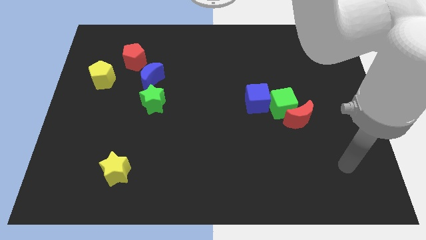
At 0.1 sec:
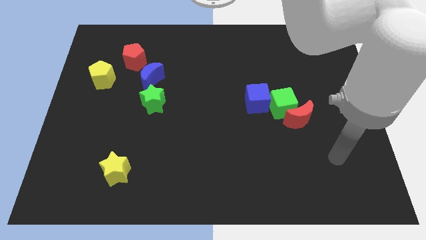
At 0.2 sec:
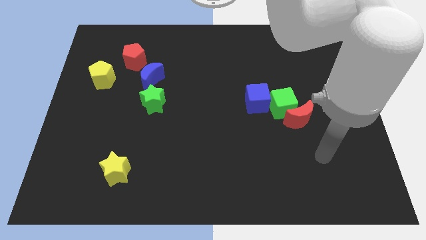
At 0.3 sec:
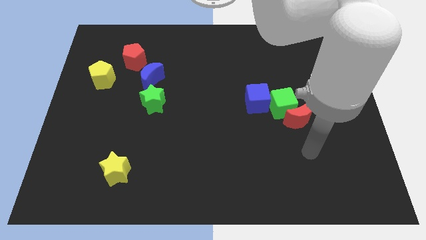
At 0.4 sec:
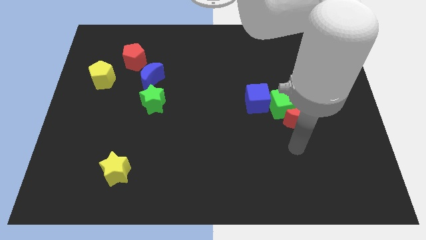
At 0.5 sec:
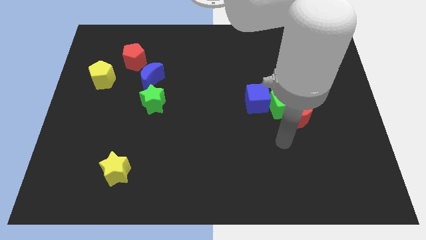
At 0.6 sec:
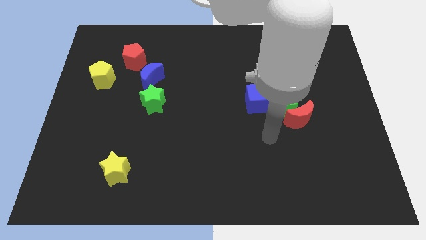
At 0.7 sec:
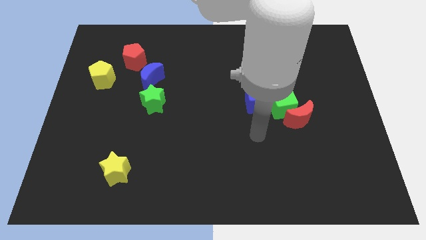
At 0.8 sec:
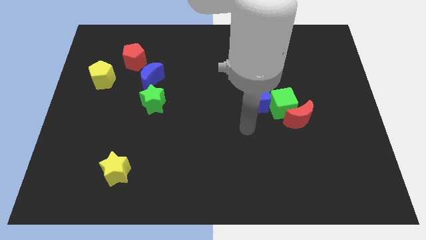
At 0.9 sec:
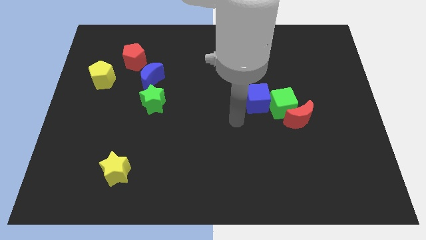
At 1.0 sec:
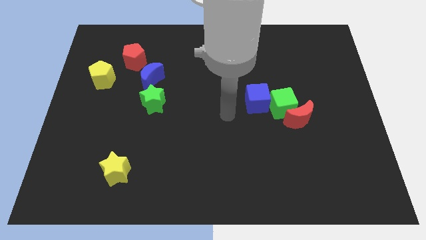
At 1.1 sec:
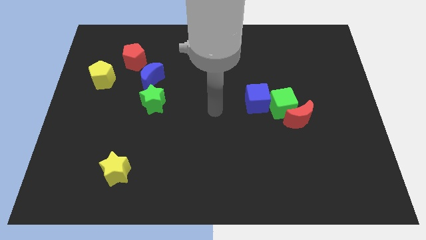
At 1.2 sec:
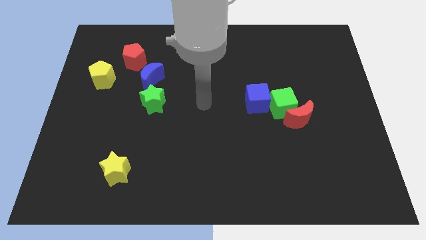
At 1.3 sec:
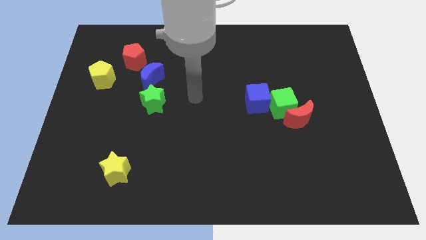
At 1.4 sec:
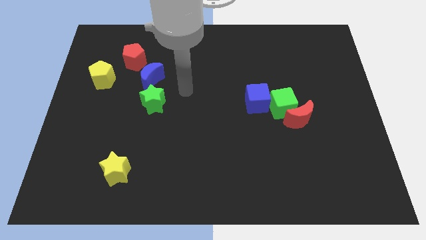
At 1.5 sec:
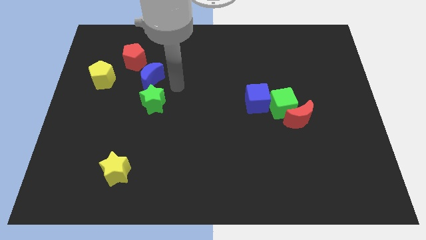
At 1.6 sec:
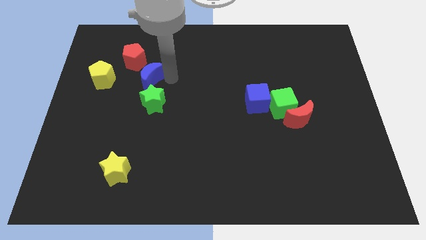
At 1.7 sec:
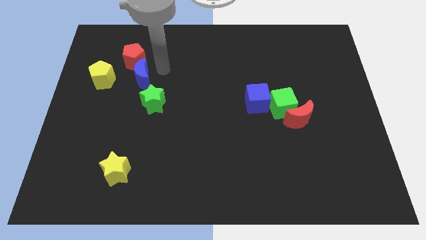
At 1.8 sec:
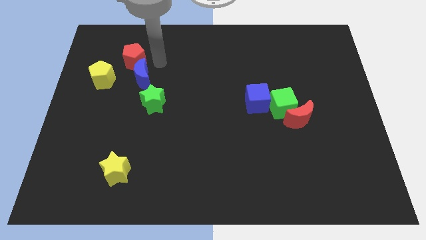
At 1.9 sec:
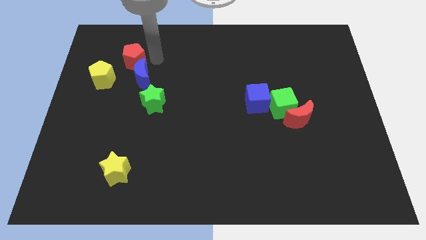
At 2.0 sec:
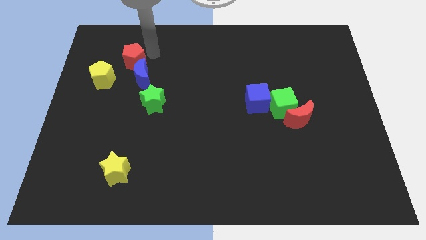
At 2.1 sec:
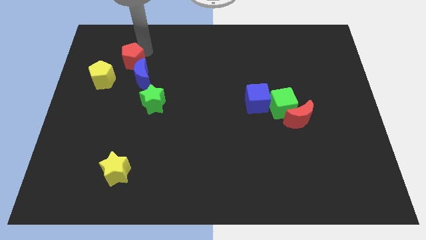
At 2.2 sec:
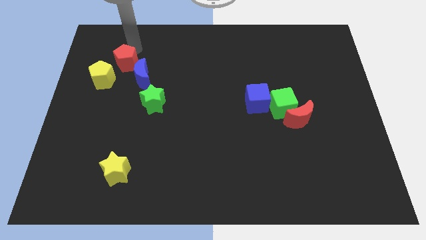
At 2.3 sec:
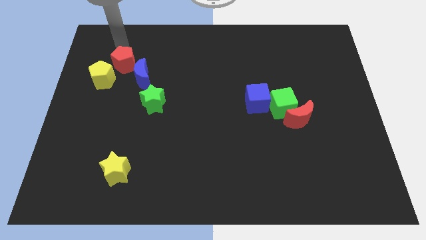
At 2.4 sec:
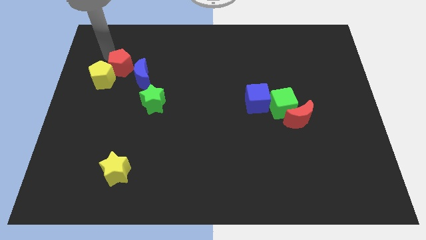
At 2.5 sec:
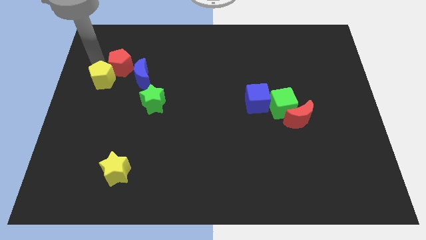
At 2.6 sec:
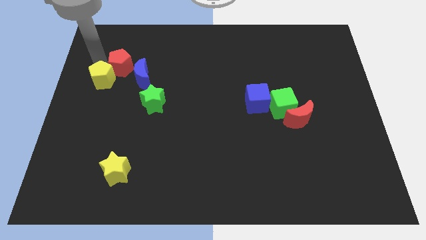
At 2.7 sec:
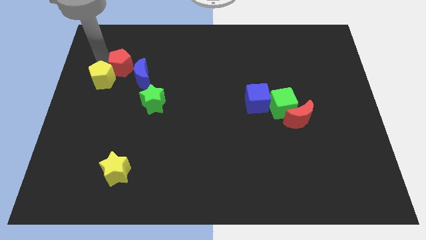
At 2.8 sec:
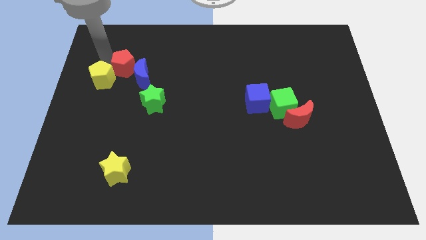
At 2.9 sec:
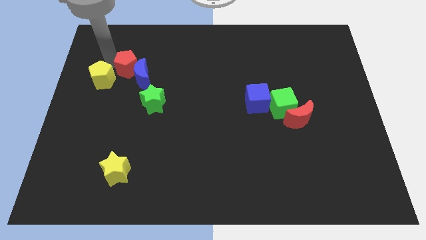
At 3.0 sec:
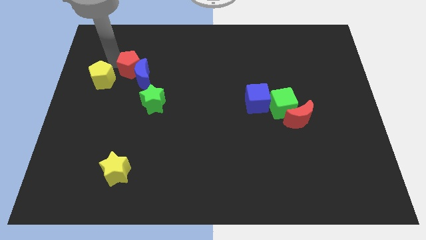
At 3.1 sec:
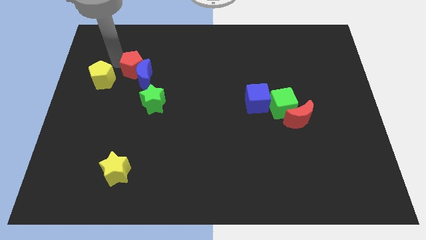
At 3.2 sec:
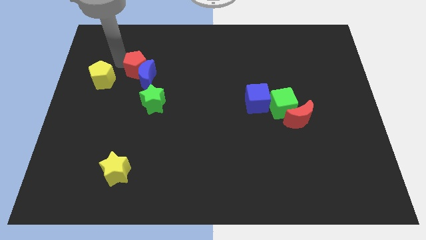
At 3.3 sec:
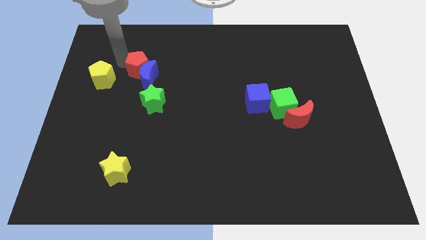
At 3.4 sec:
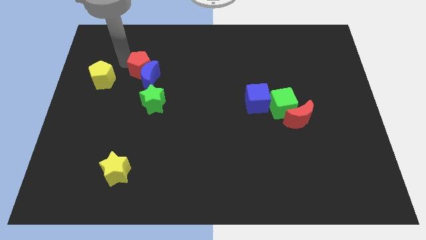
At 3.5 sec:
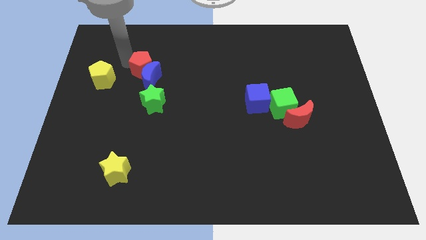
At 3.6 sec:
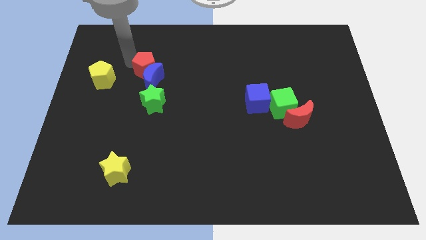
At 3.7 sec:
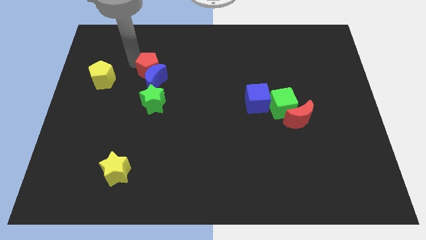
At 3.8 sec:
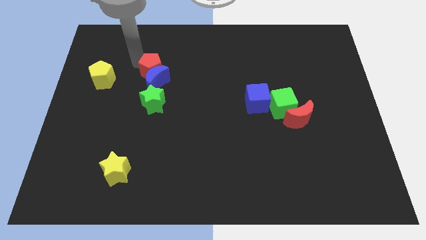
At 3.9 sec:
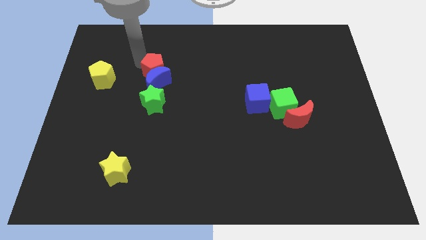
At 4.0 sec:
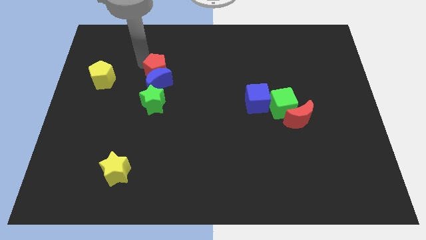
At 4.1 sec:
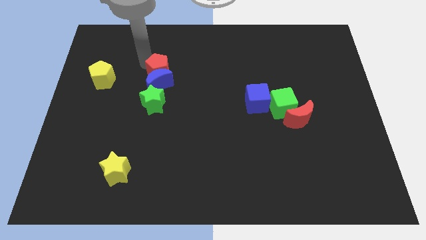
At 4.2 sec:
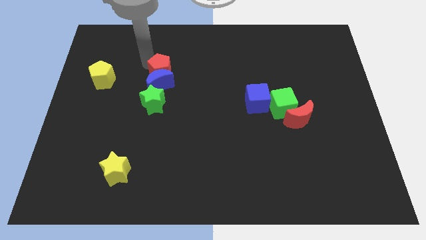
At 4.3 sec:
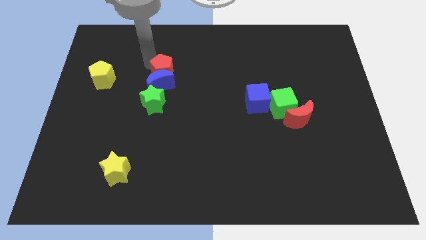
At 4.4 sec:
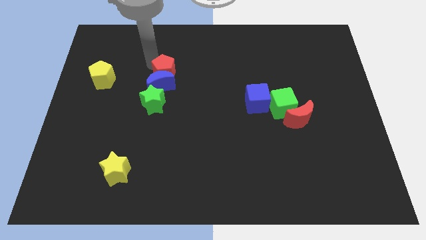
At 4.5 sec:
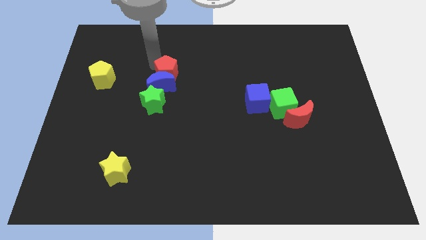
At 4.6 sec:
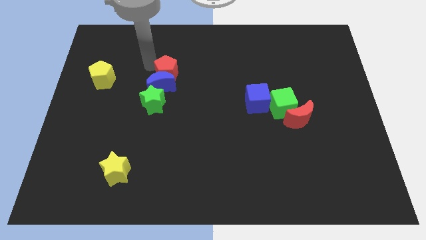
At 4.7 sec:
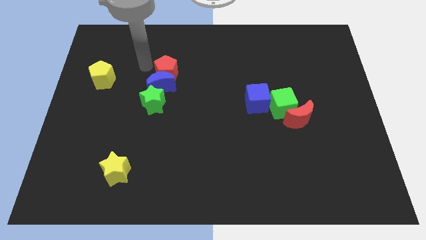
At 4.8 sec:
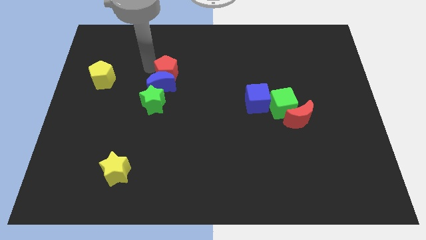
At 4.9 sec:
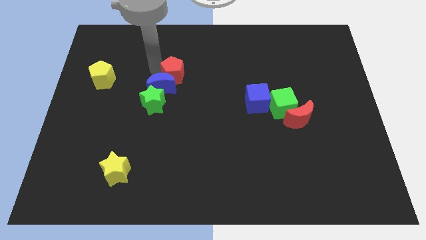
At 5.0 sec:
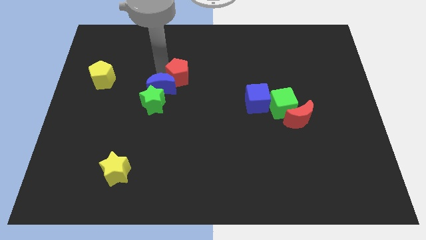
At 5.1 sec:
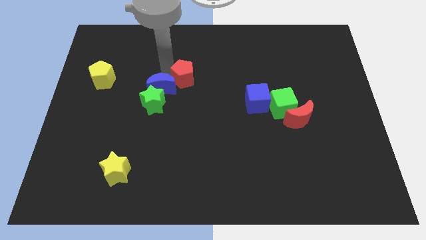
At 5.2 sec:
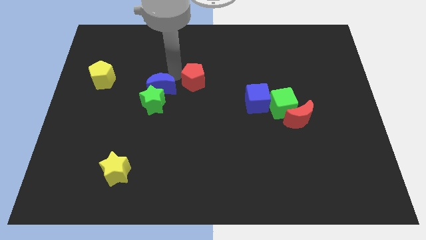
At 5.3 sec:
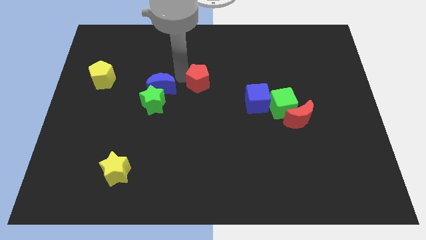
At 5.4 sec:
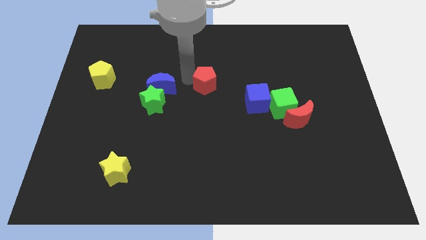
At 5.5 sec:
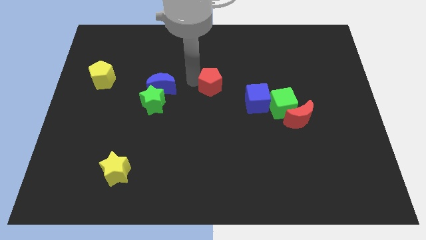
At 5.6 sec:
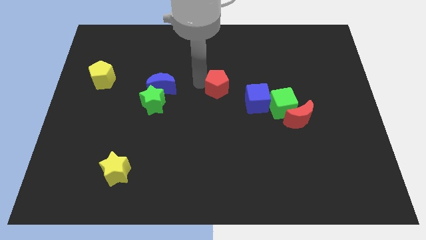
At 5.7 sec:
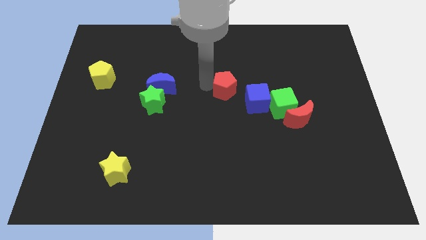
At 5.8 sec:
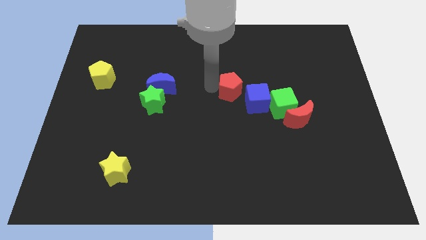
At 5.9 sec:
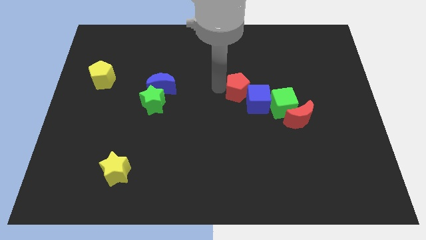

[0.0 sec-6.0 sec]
slide the red pentagon close to the blue cube
